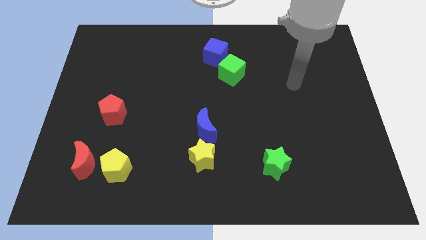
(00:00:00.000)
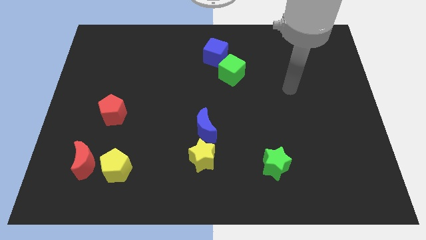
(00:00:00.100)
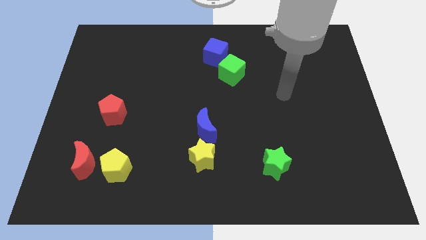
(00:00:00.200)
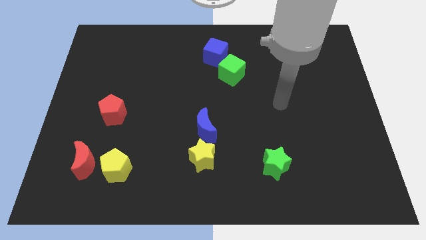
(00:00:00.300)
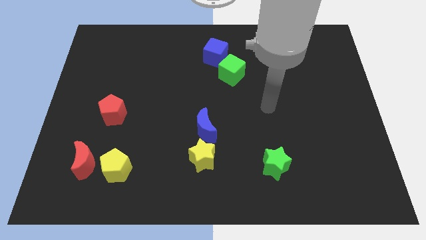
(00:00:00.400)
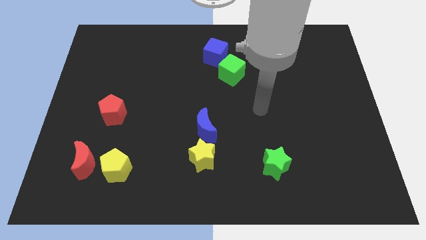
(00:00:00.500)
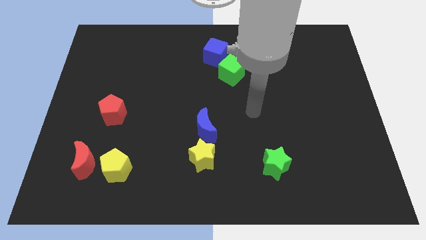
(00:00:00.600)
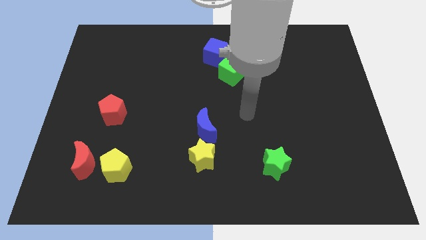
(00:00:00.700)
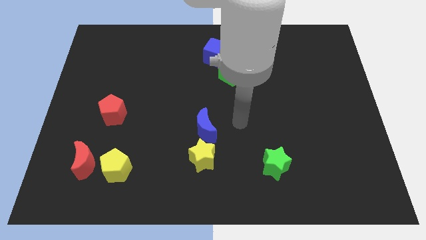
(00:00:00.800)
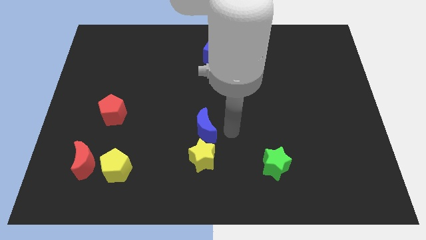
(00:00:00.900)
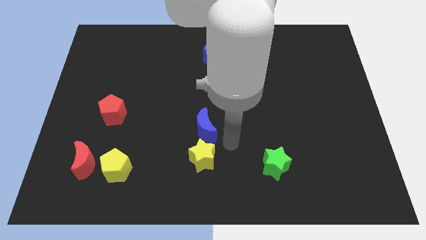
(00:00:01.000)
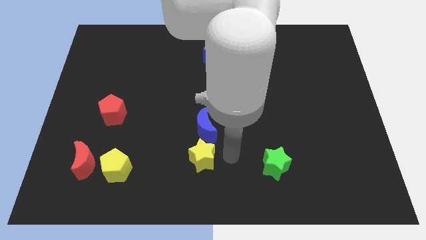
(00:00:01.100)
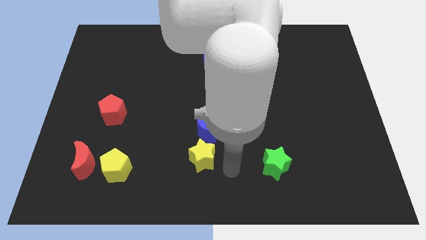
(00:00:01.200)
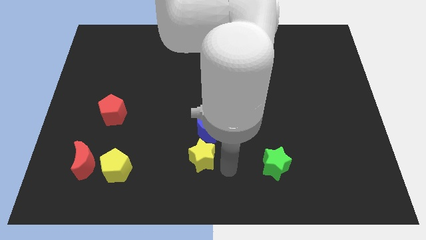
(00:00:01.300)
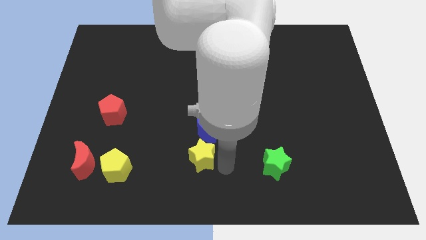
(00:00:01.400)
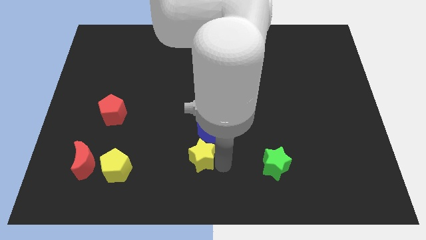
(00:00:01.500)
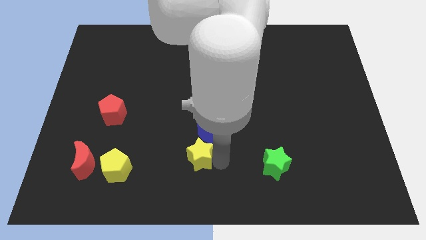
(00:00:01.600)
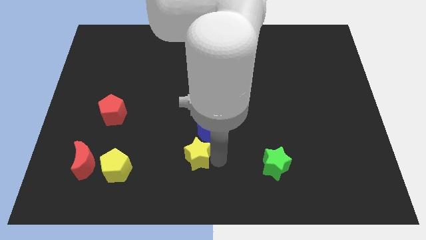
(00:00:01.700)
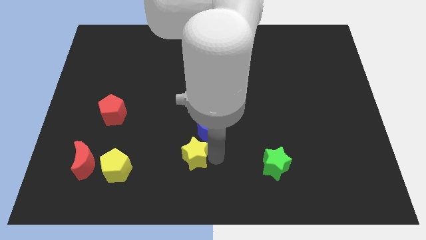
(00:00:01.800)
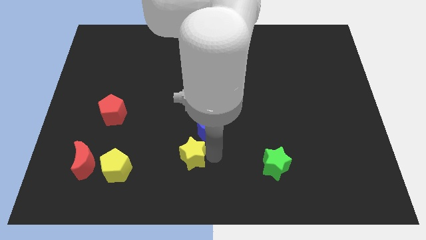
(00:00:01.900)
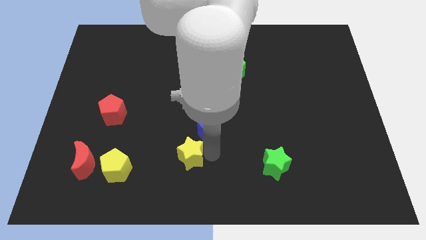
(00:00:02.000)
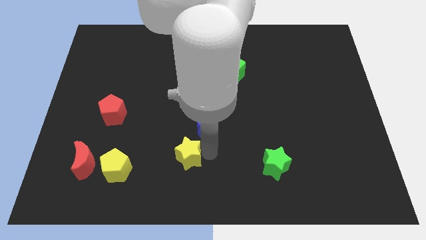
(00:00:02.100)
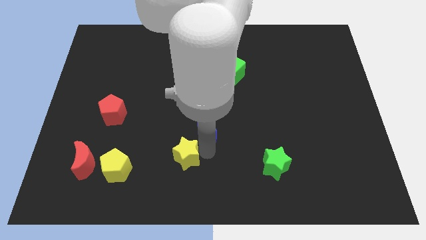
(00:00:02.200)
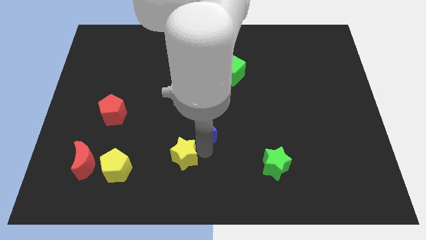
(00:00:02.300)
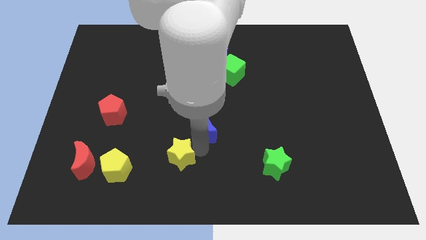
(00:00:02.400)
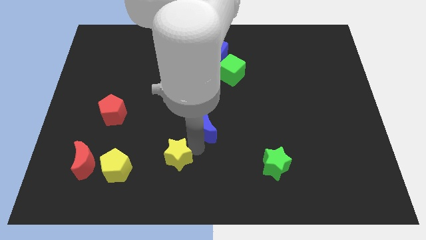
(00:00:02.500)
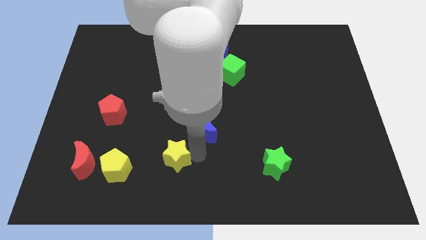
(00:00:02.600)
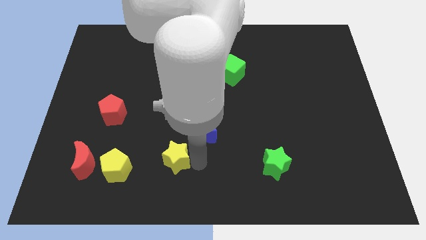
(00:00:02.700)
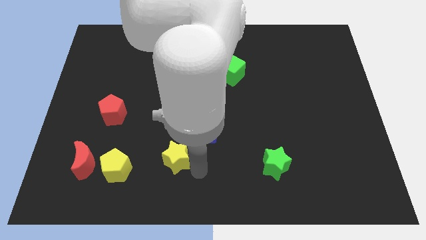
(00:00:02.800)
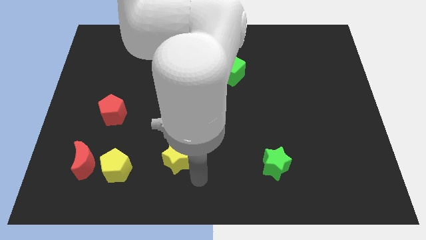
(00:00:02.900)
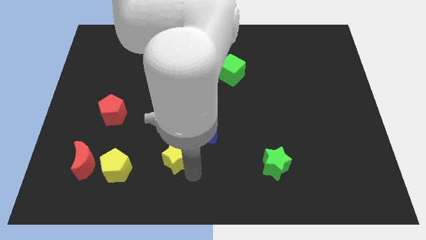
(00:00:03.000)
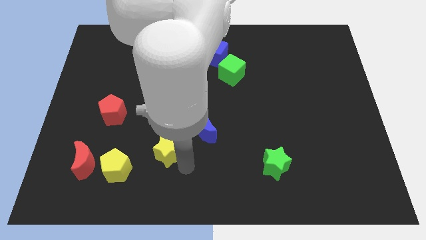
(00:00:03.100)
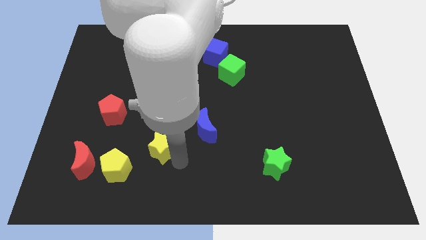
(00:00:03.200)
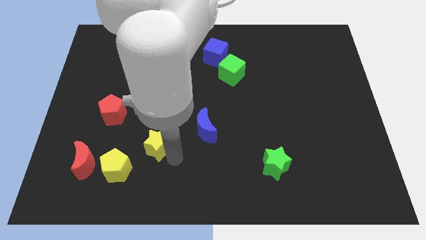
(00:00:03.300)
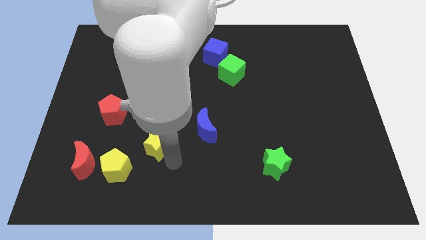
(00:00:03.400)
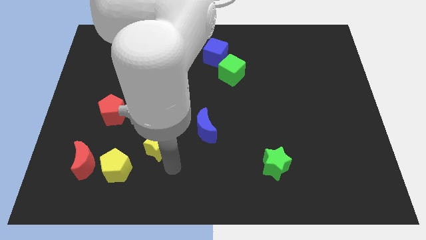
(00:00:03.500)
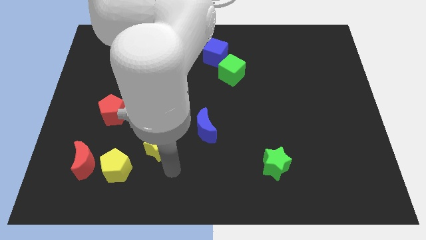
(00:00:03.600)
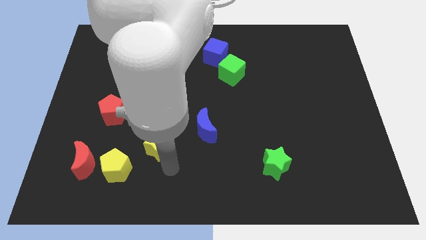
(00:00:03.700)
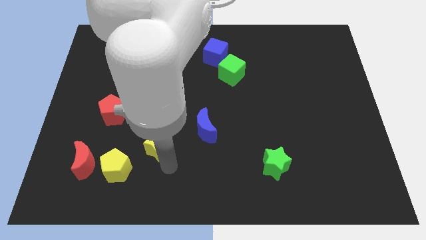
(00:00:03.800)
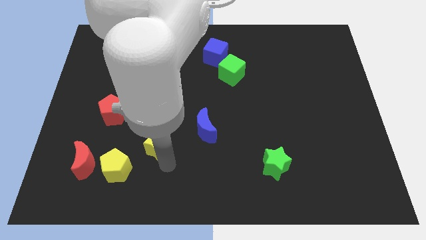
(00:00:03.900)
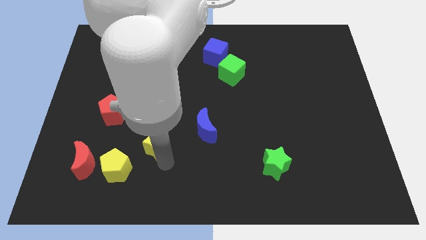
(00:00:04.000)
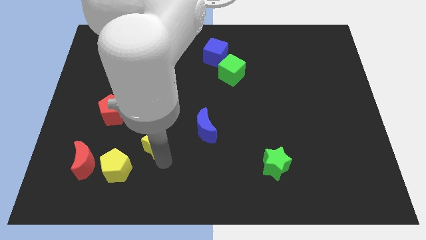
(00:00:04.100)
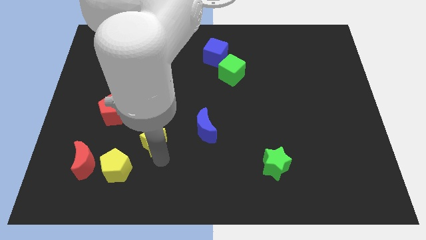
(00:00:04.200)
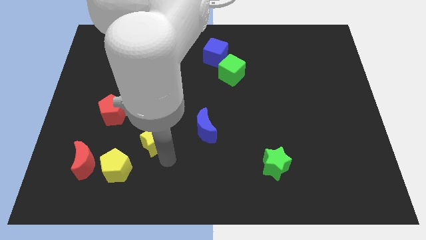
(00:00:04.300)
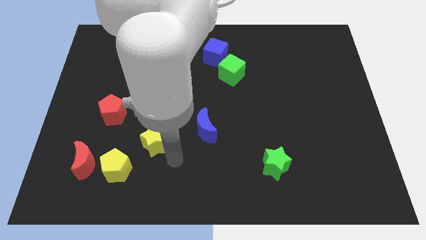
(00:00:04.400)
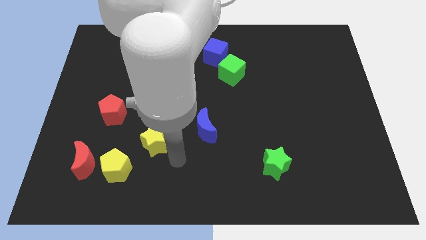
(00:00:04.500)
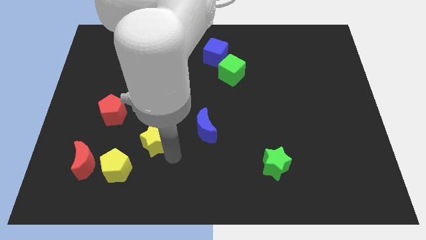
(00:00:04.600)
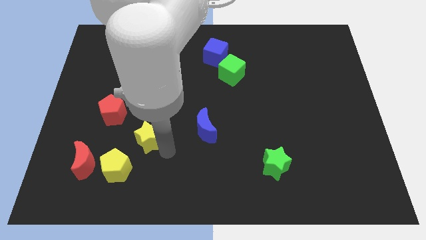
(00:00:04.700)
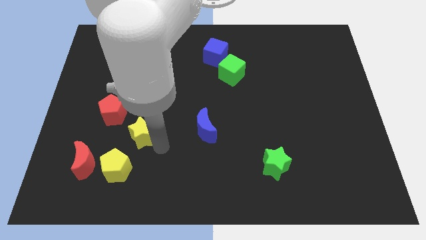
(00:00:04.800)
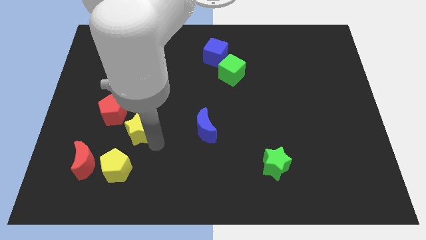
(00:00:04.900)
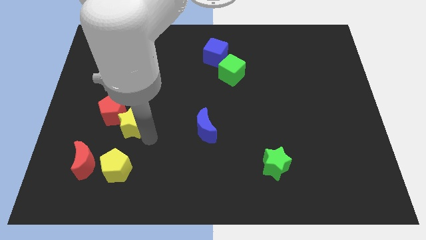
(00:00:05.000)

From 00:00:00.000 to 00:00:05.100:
push the yellow star to the red pentagon

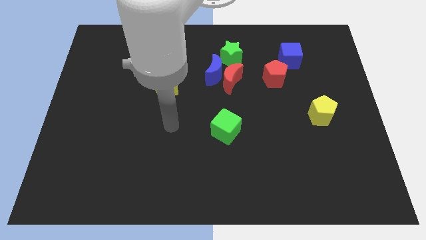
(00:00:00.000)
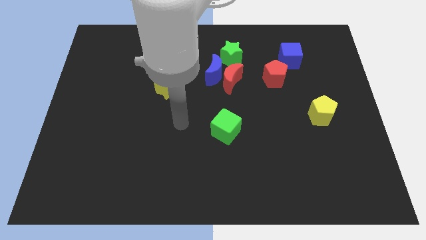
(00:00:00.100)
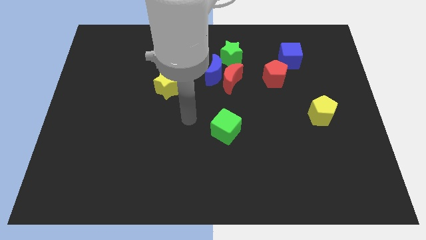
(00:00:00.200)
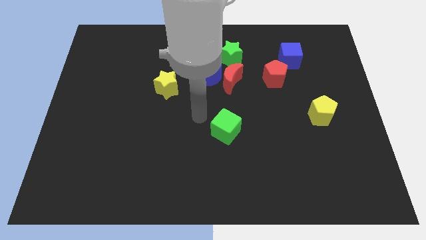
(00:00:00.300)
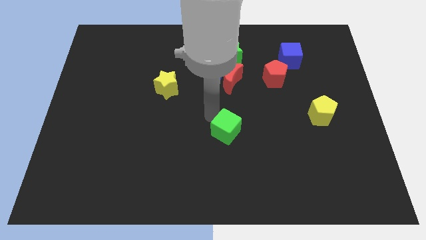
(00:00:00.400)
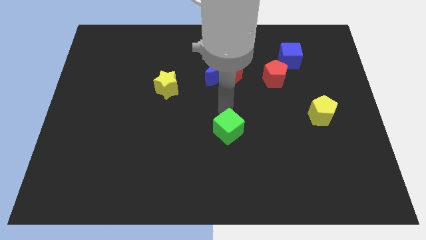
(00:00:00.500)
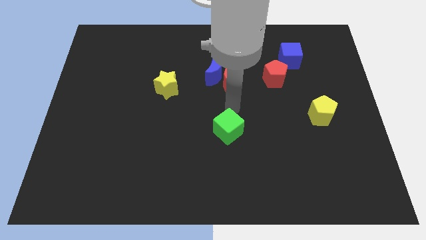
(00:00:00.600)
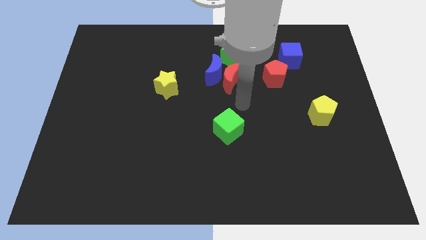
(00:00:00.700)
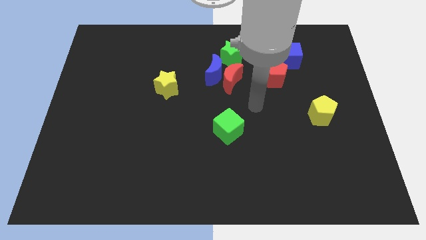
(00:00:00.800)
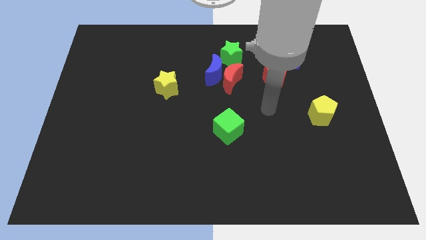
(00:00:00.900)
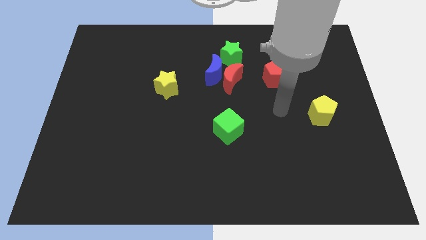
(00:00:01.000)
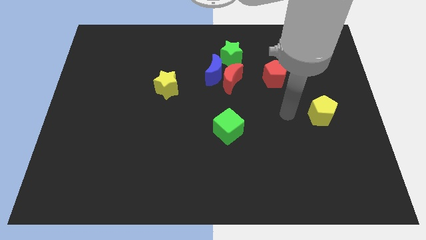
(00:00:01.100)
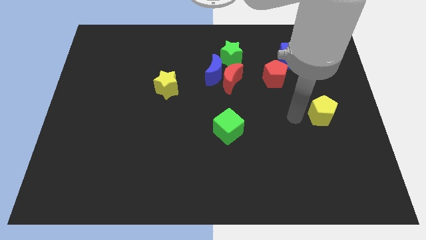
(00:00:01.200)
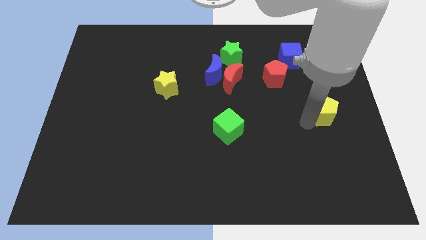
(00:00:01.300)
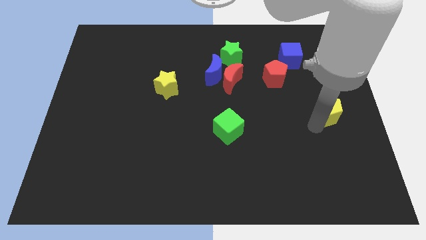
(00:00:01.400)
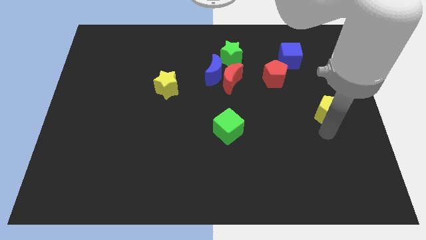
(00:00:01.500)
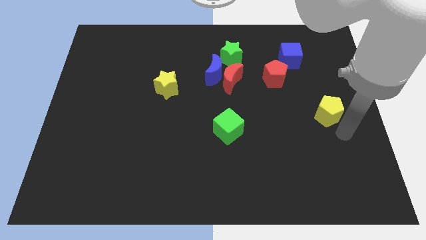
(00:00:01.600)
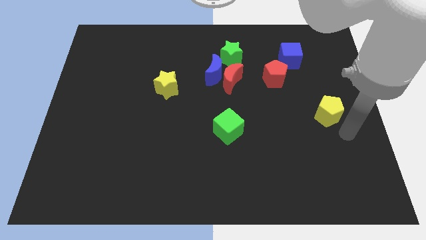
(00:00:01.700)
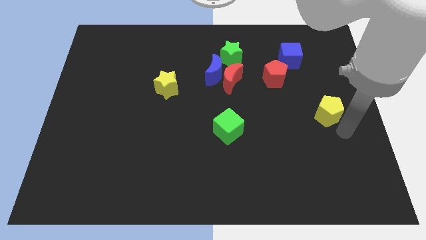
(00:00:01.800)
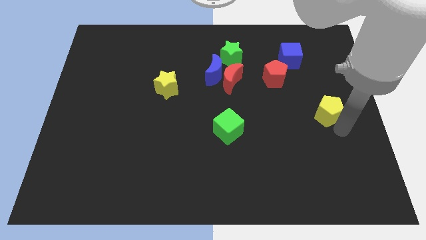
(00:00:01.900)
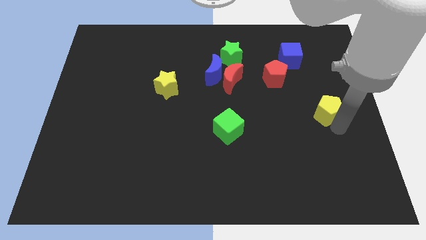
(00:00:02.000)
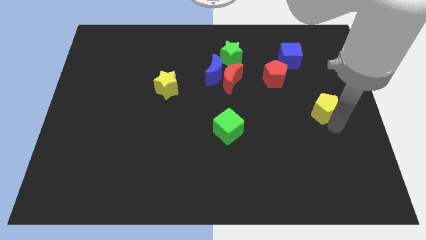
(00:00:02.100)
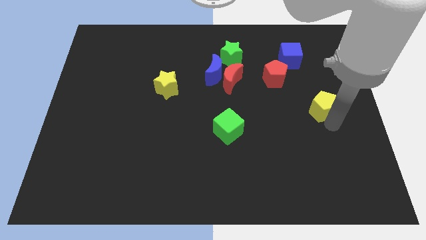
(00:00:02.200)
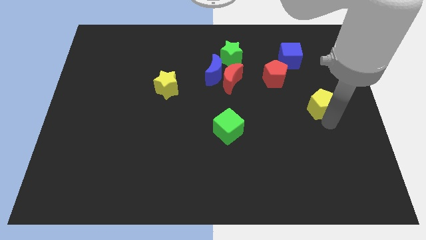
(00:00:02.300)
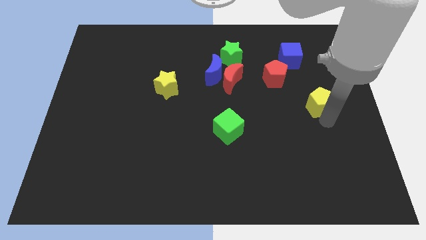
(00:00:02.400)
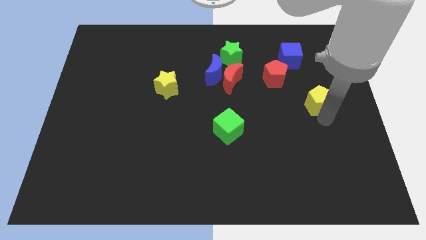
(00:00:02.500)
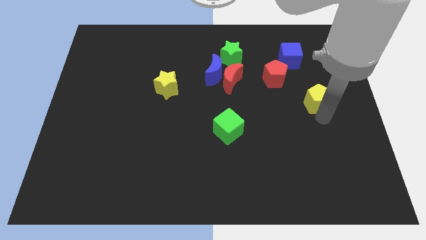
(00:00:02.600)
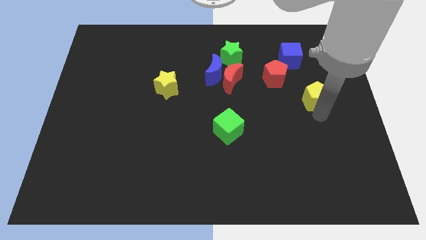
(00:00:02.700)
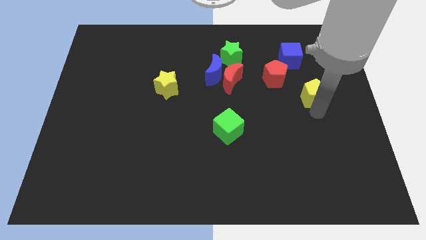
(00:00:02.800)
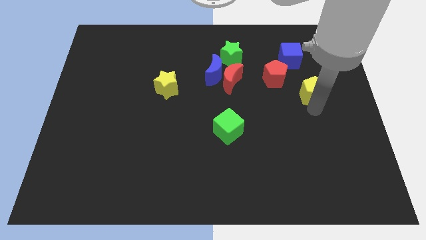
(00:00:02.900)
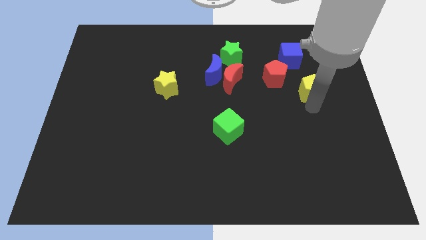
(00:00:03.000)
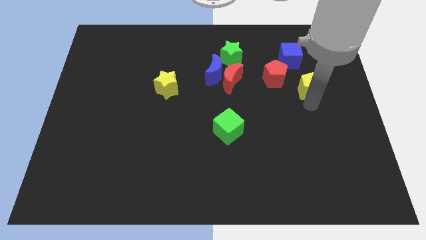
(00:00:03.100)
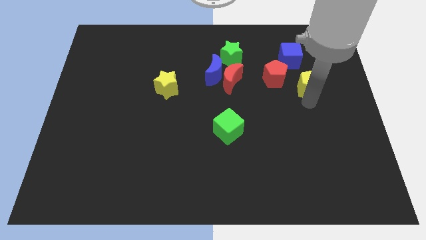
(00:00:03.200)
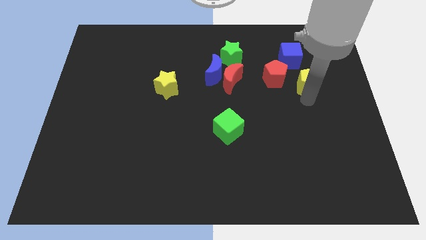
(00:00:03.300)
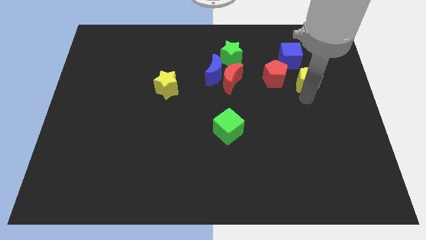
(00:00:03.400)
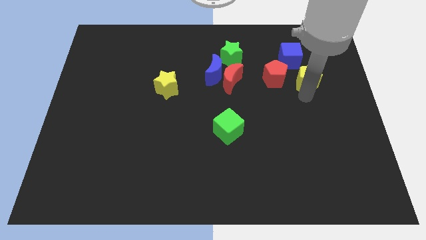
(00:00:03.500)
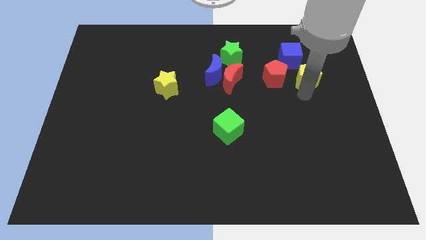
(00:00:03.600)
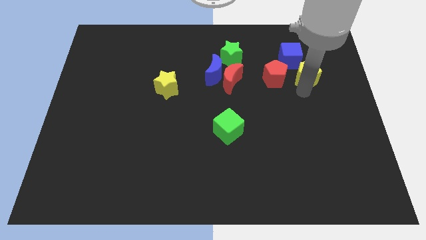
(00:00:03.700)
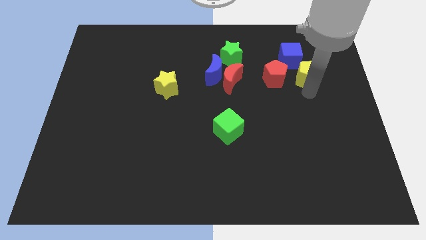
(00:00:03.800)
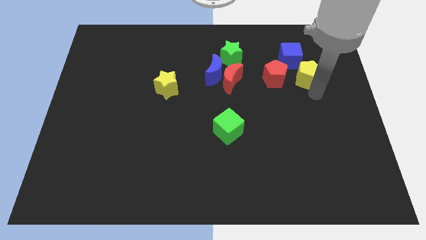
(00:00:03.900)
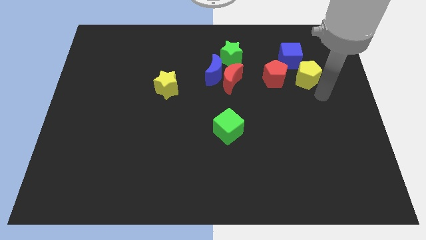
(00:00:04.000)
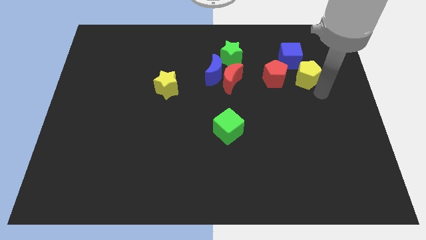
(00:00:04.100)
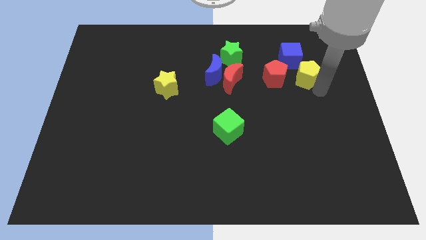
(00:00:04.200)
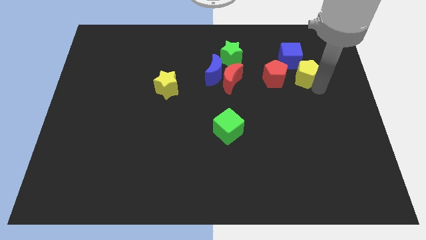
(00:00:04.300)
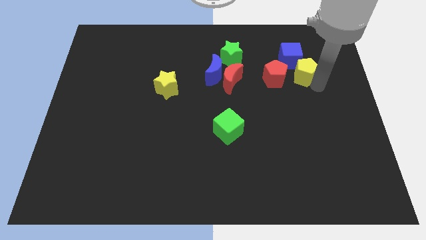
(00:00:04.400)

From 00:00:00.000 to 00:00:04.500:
put the yellow pentagon next to the blue cube
